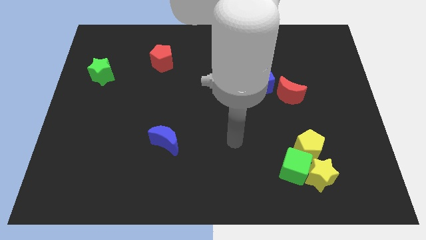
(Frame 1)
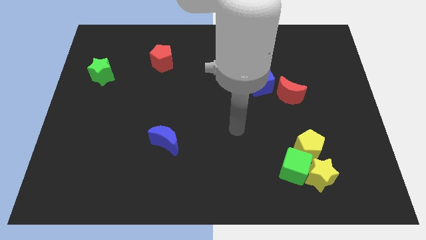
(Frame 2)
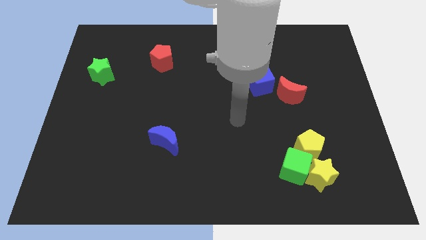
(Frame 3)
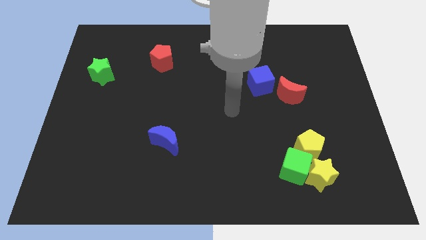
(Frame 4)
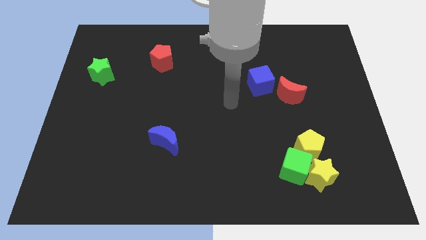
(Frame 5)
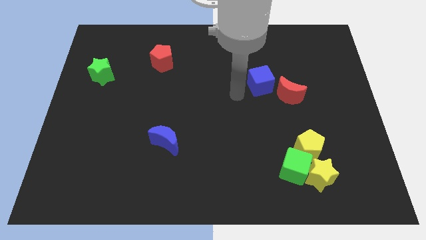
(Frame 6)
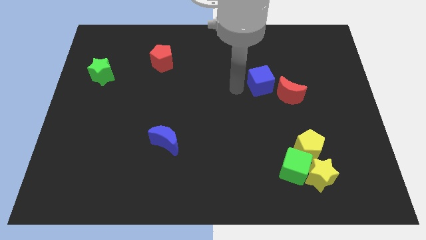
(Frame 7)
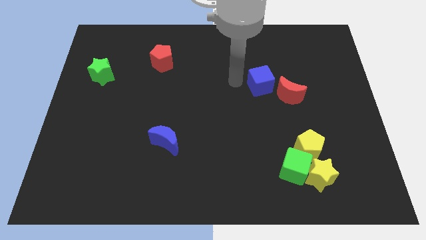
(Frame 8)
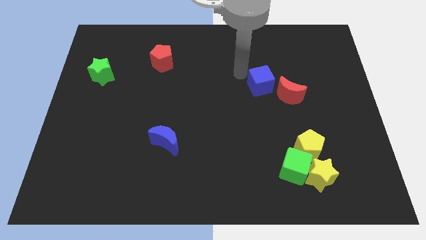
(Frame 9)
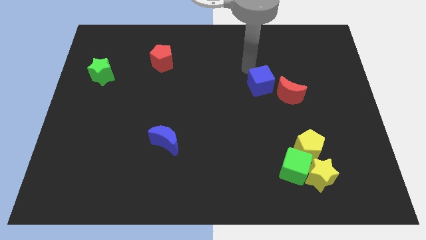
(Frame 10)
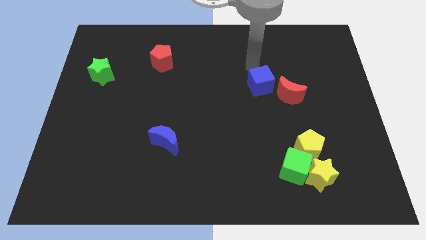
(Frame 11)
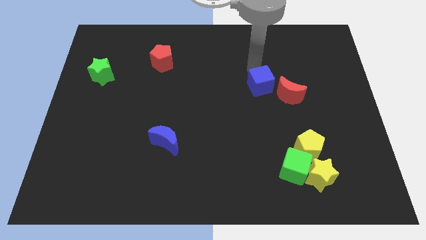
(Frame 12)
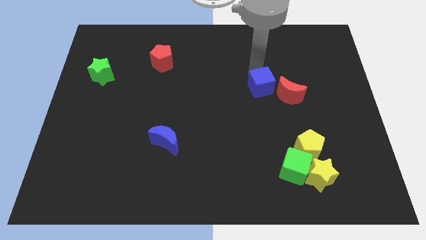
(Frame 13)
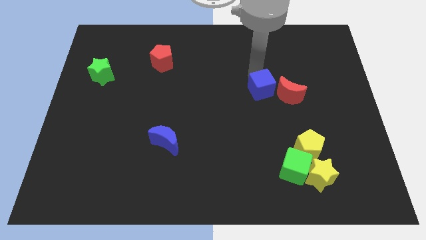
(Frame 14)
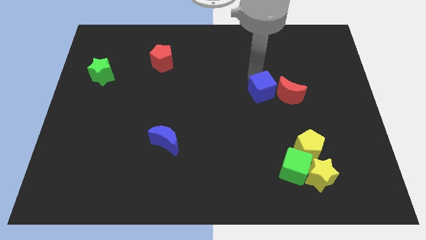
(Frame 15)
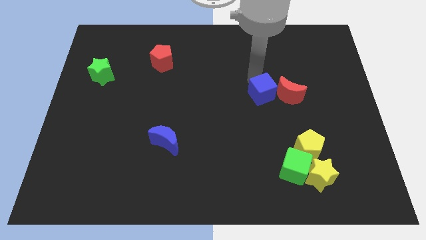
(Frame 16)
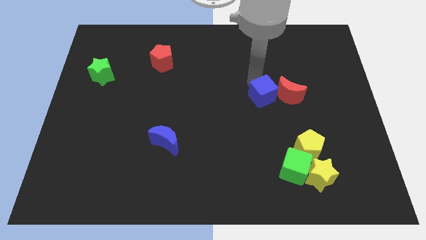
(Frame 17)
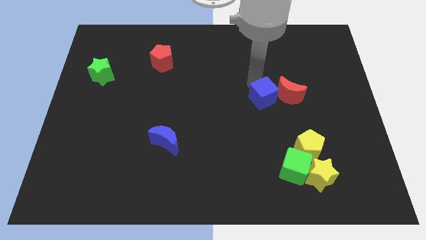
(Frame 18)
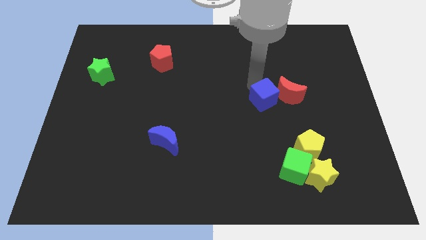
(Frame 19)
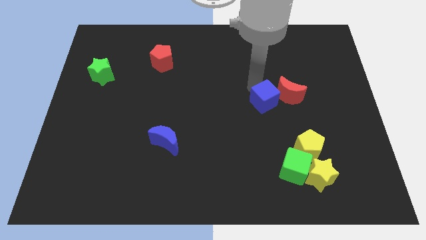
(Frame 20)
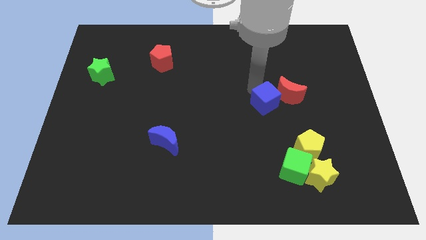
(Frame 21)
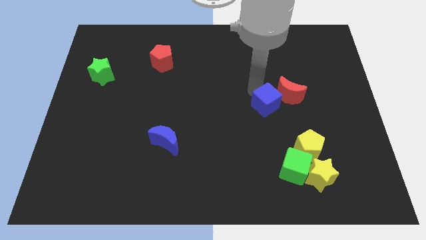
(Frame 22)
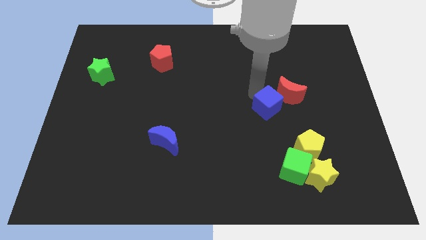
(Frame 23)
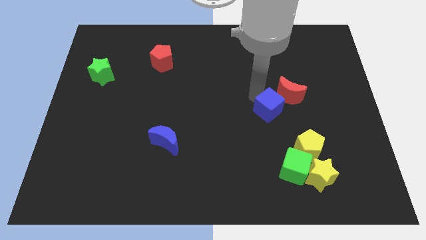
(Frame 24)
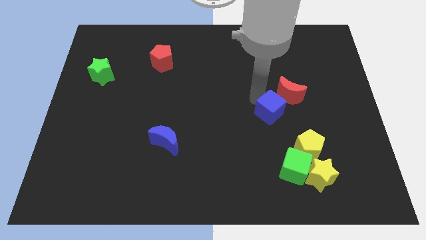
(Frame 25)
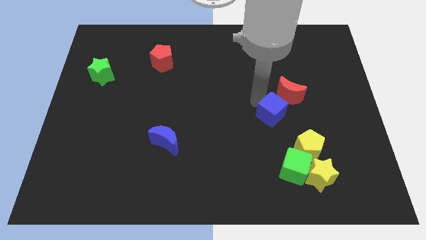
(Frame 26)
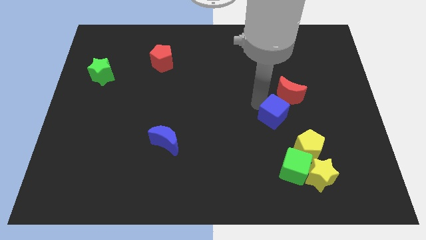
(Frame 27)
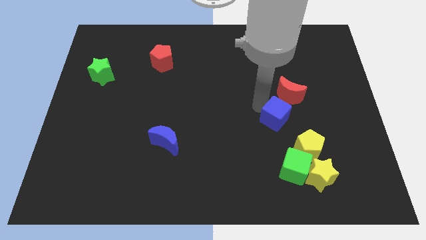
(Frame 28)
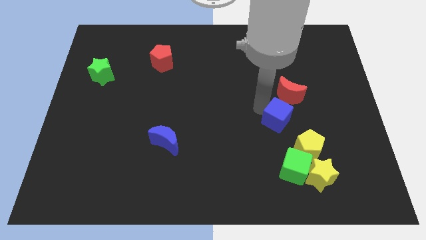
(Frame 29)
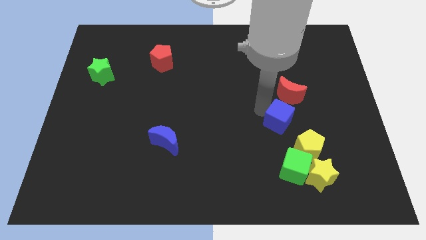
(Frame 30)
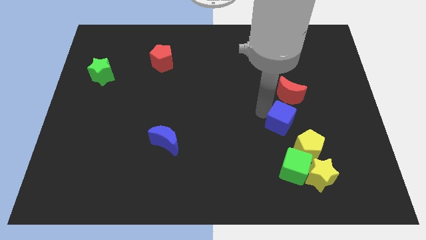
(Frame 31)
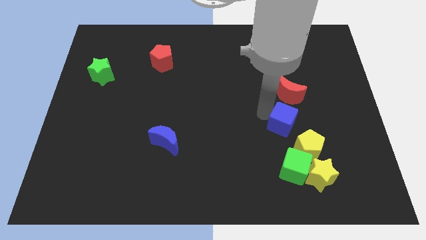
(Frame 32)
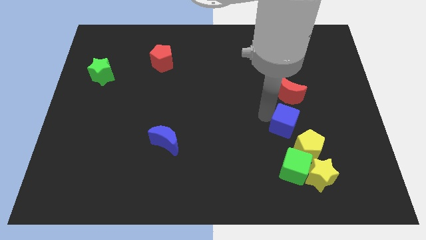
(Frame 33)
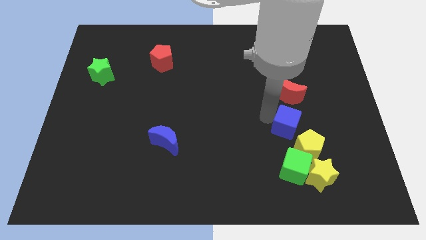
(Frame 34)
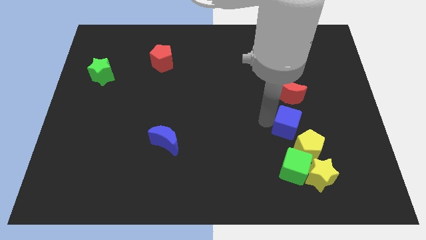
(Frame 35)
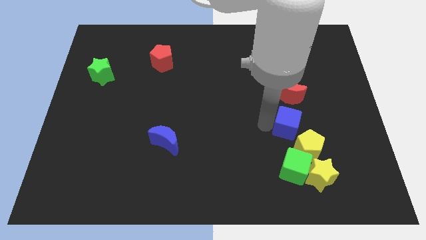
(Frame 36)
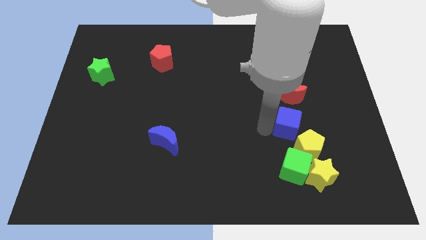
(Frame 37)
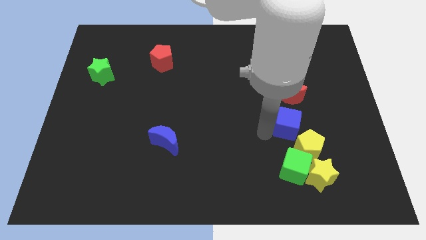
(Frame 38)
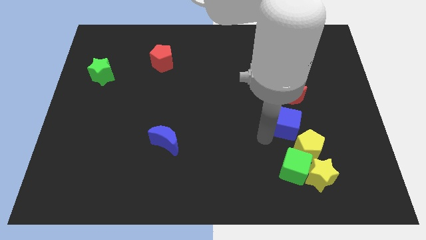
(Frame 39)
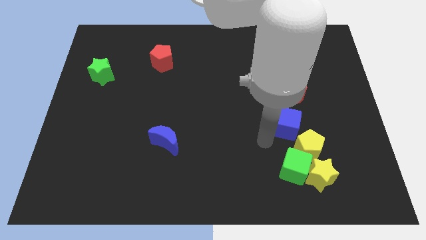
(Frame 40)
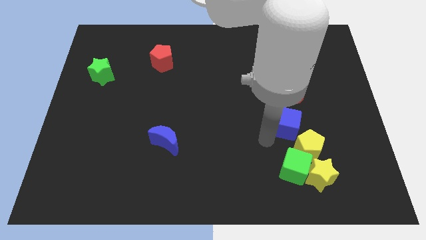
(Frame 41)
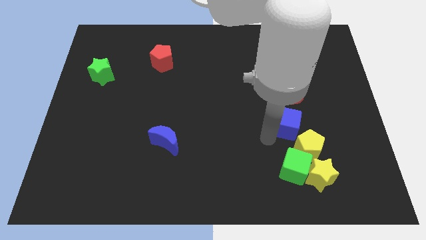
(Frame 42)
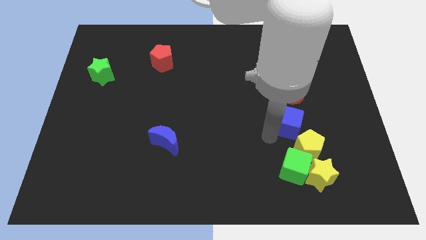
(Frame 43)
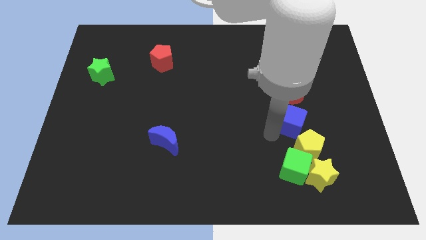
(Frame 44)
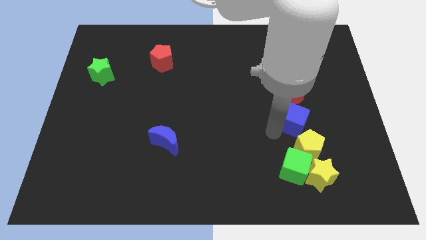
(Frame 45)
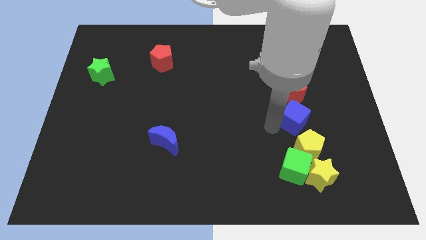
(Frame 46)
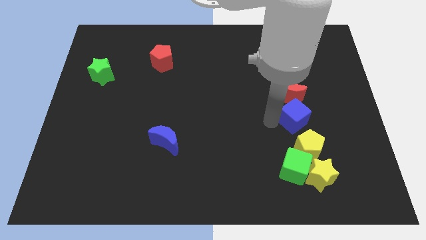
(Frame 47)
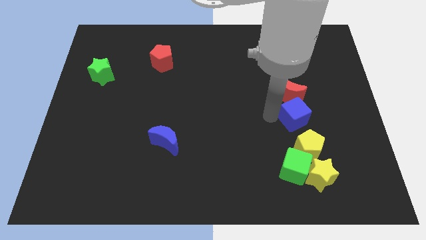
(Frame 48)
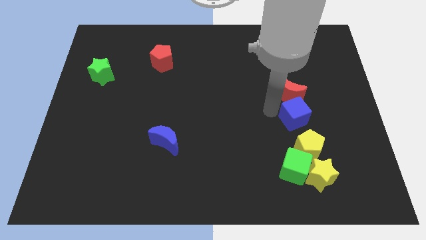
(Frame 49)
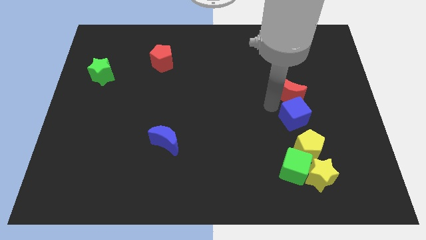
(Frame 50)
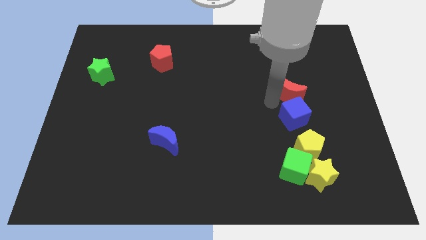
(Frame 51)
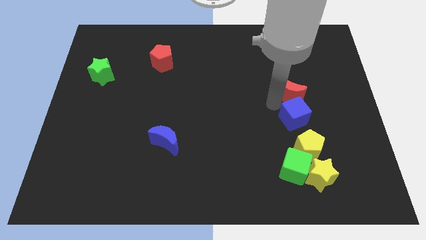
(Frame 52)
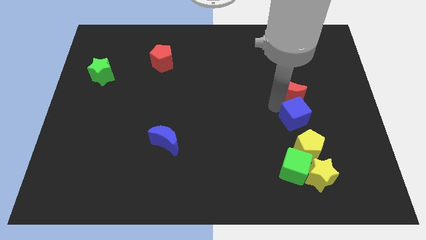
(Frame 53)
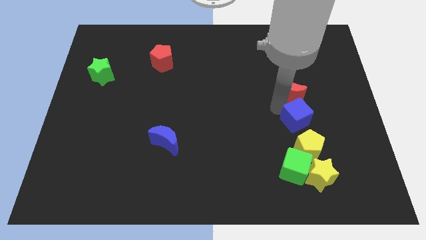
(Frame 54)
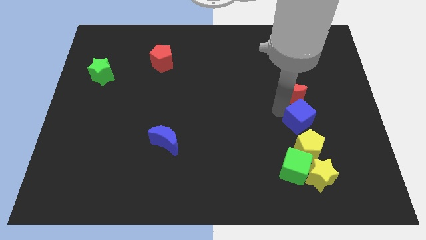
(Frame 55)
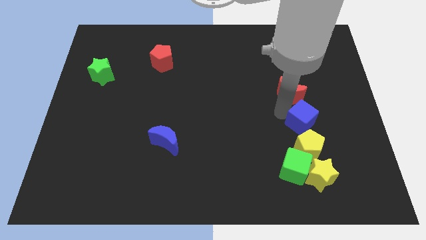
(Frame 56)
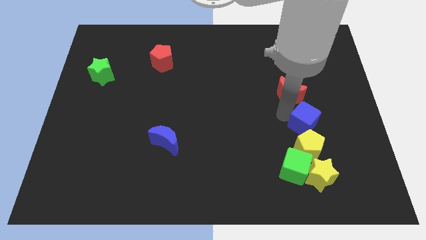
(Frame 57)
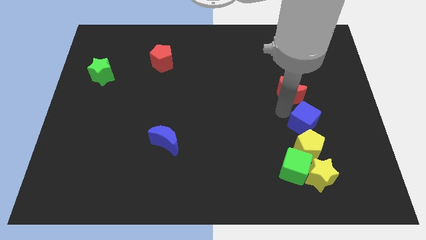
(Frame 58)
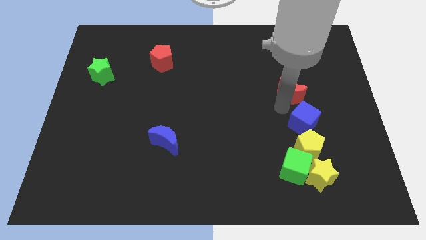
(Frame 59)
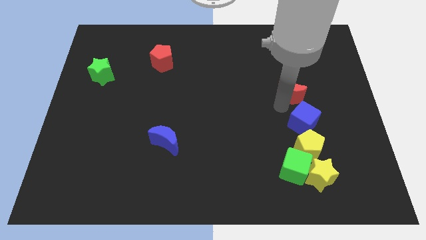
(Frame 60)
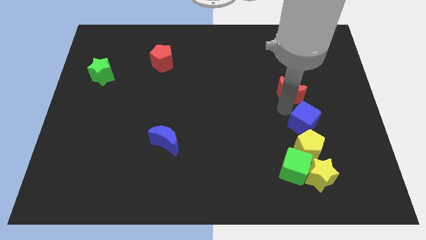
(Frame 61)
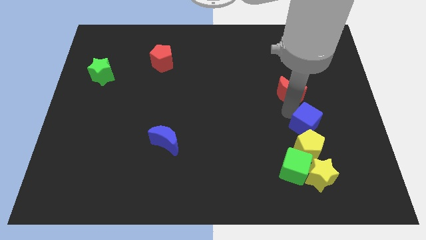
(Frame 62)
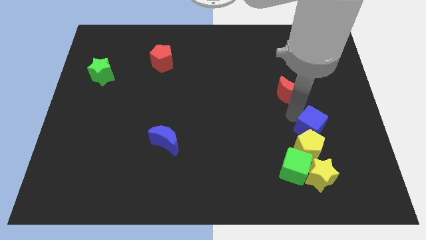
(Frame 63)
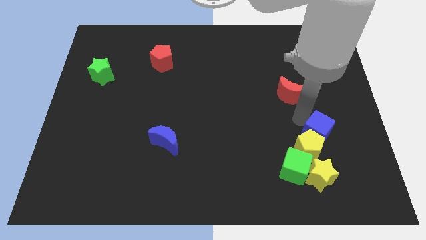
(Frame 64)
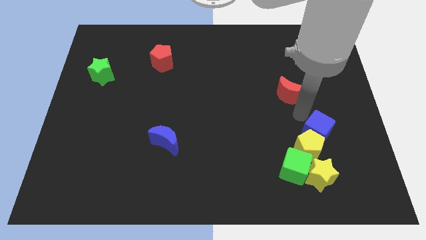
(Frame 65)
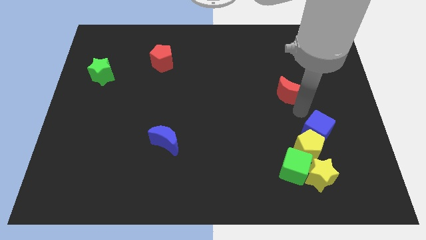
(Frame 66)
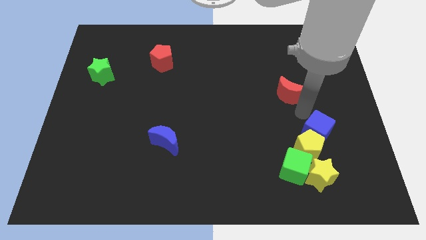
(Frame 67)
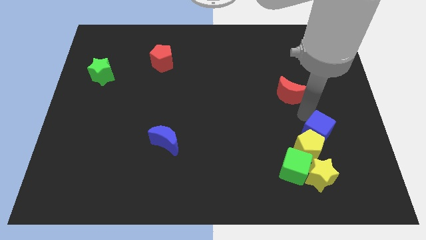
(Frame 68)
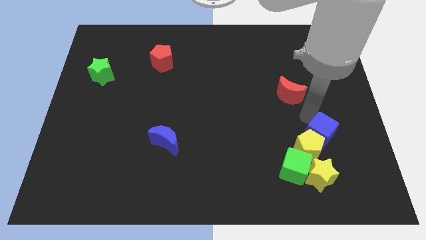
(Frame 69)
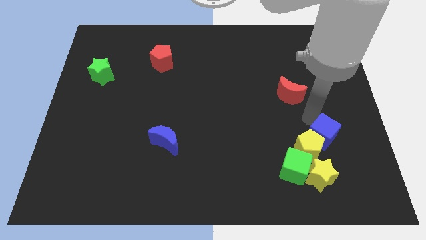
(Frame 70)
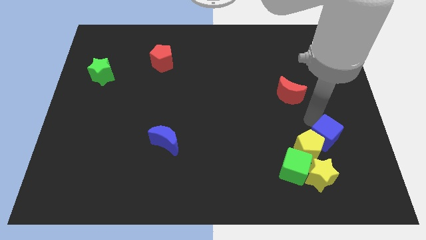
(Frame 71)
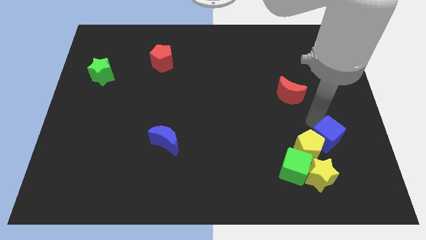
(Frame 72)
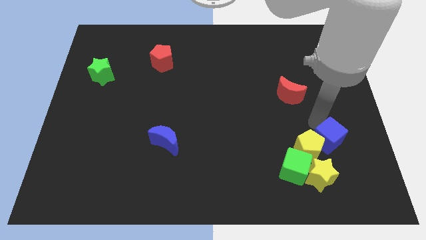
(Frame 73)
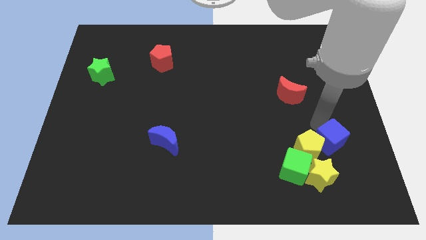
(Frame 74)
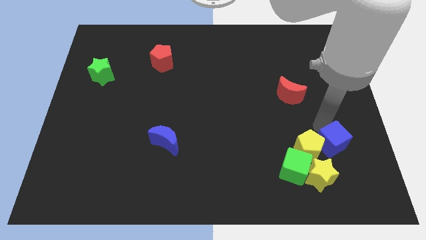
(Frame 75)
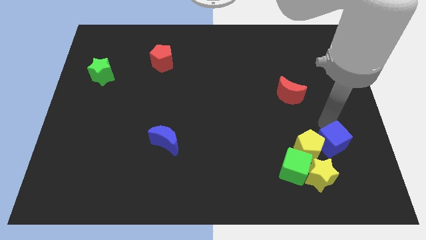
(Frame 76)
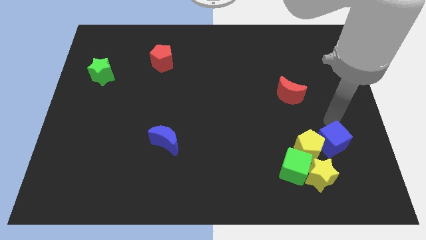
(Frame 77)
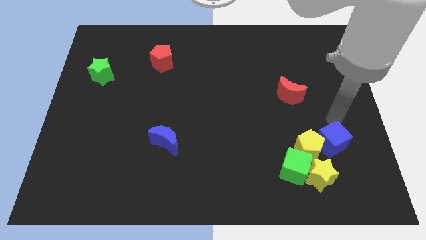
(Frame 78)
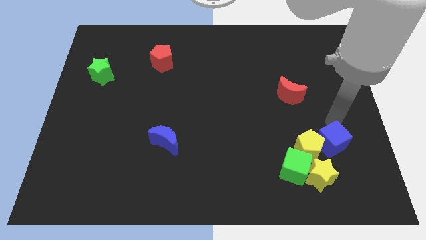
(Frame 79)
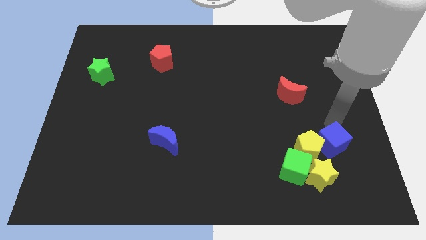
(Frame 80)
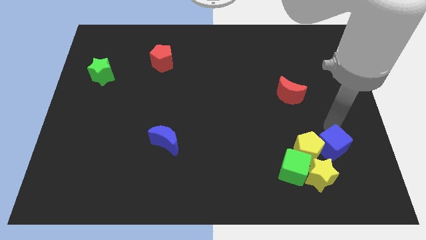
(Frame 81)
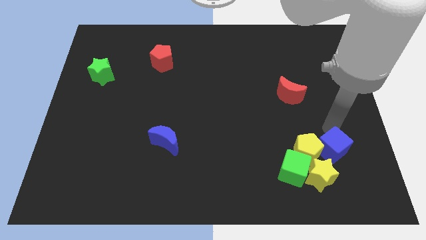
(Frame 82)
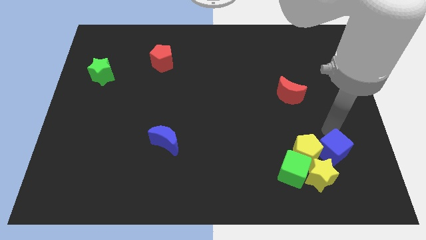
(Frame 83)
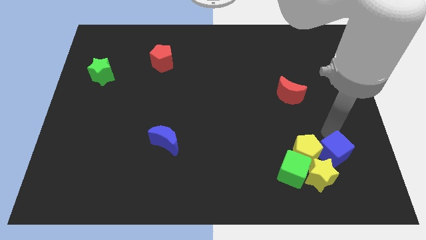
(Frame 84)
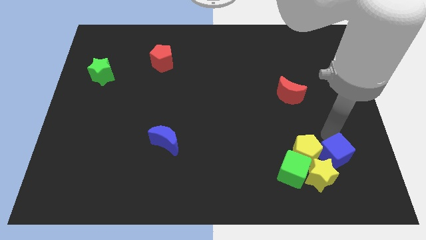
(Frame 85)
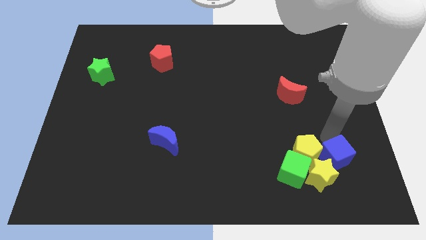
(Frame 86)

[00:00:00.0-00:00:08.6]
move the blue cube towards the yellow star
